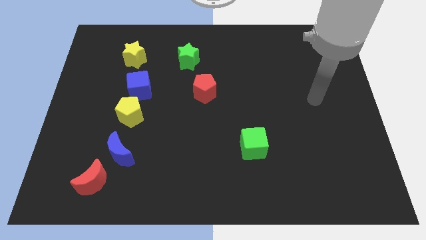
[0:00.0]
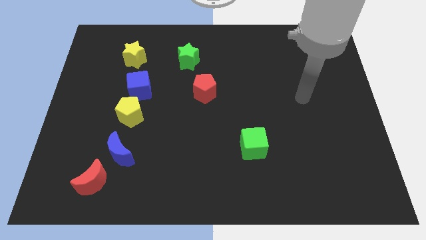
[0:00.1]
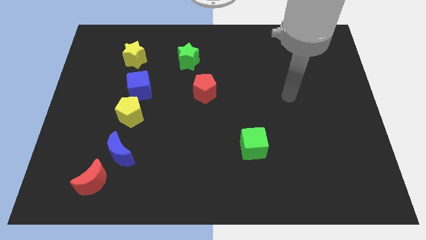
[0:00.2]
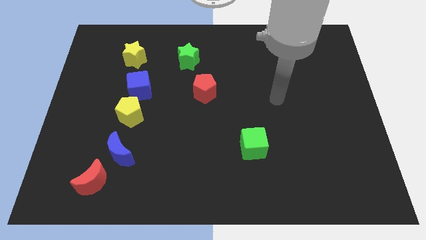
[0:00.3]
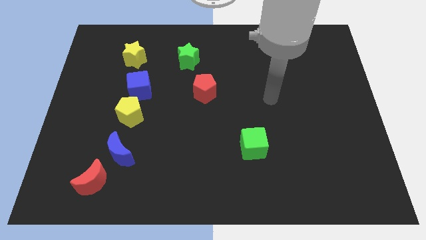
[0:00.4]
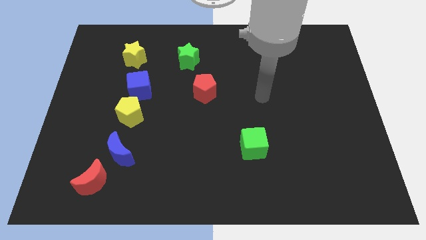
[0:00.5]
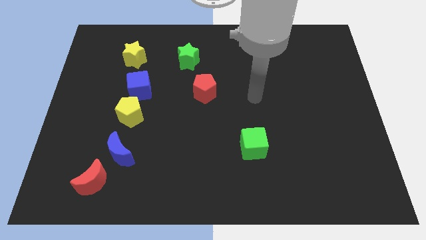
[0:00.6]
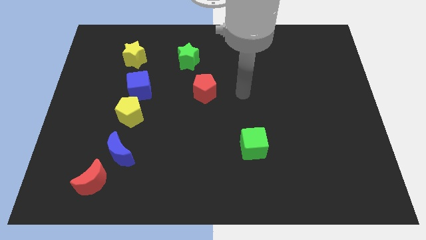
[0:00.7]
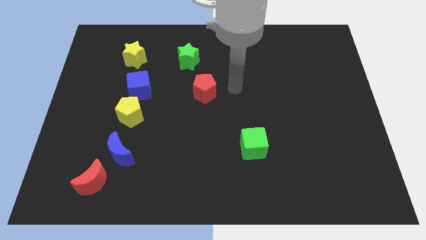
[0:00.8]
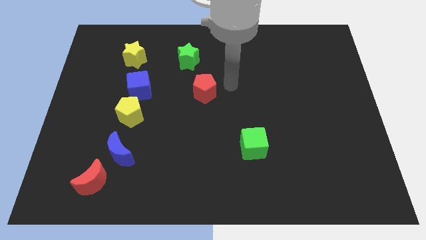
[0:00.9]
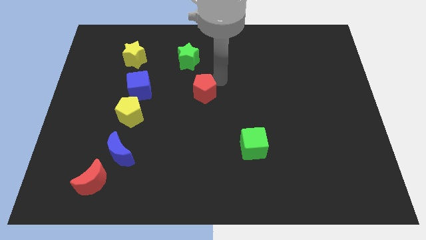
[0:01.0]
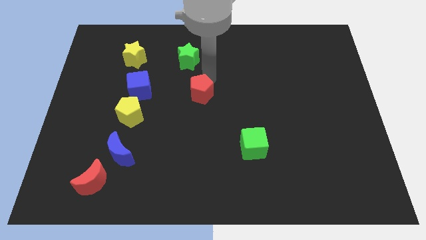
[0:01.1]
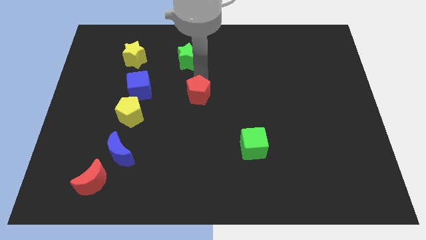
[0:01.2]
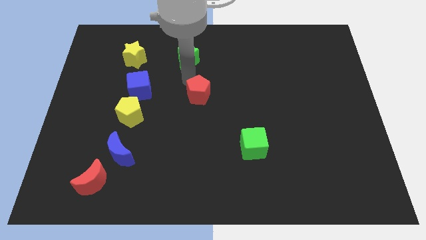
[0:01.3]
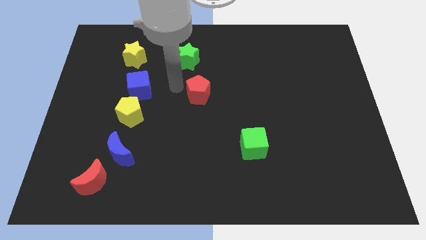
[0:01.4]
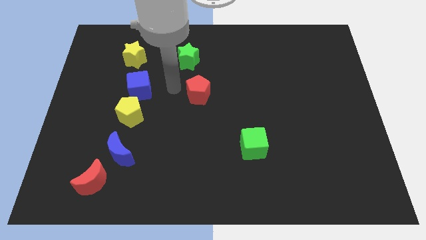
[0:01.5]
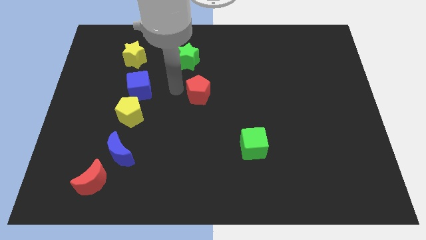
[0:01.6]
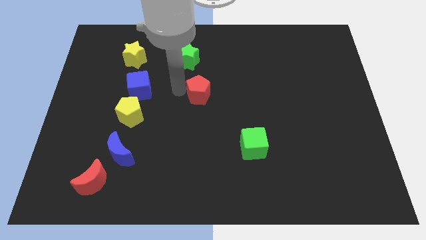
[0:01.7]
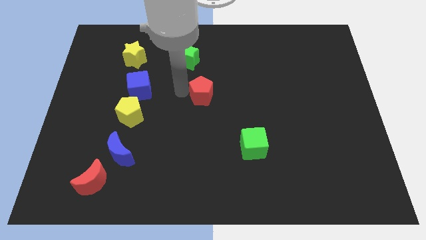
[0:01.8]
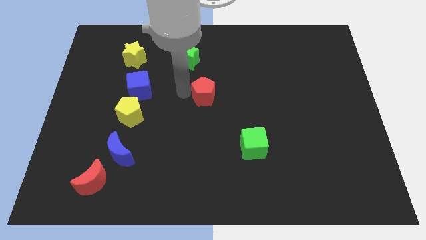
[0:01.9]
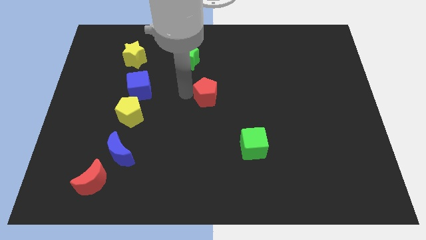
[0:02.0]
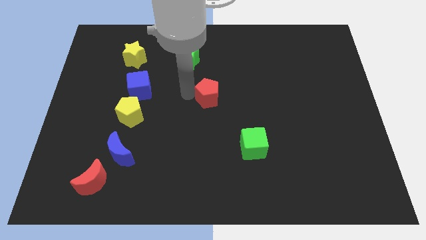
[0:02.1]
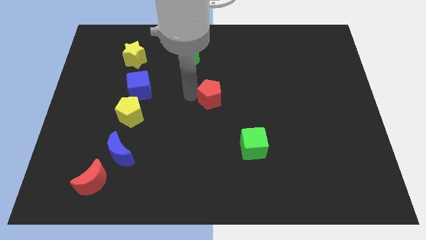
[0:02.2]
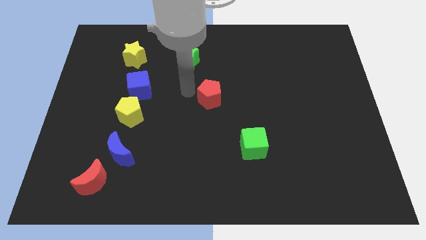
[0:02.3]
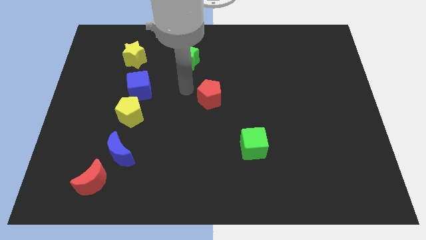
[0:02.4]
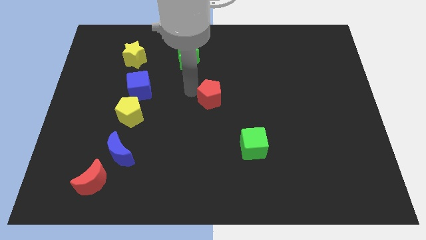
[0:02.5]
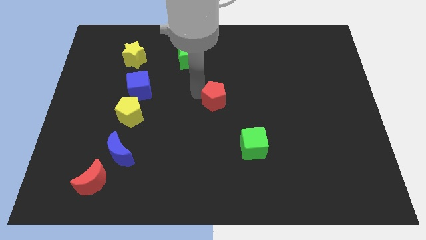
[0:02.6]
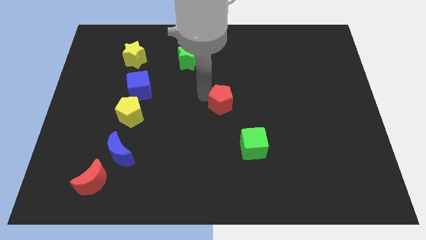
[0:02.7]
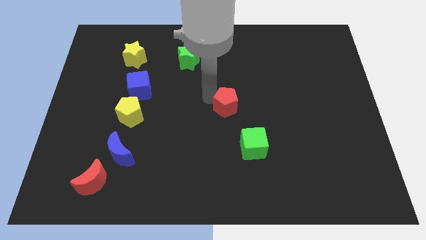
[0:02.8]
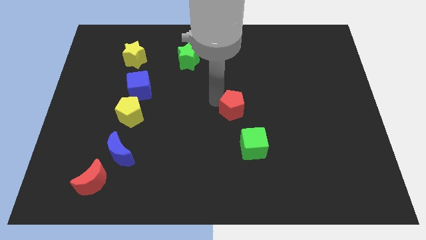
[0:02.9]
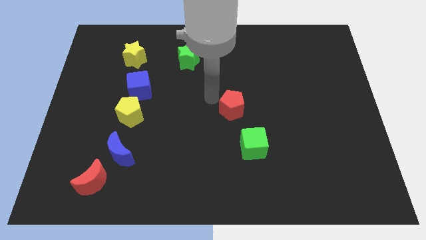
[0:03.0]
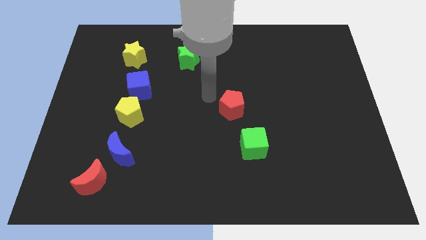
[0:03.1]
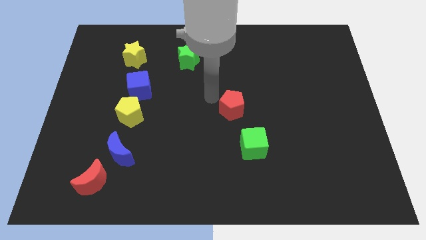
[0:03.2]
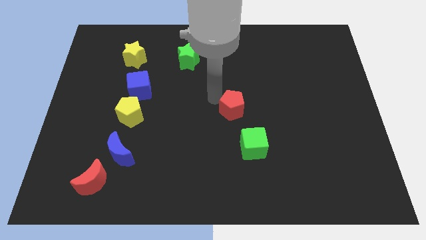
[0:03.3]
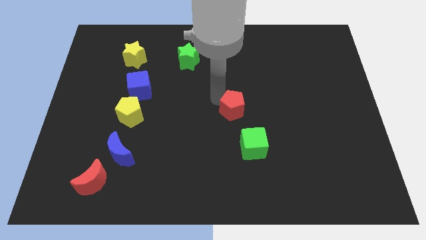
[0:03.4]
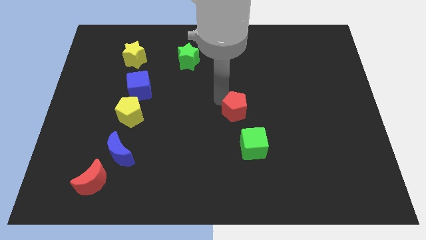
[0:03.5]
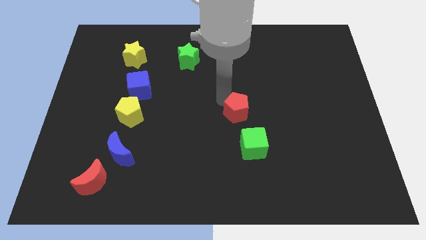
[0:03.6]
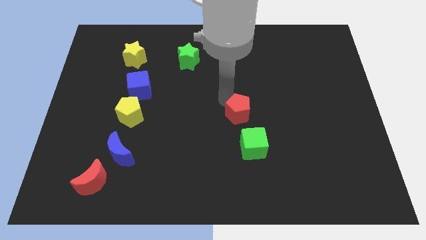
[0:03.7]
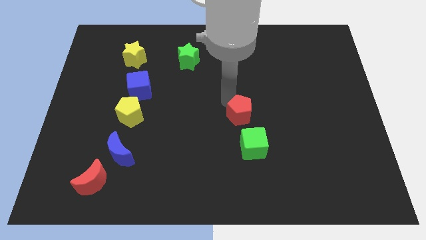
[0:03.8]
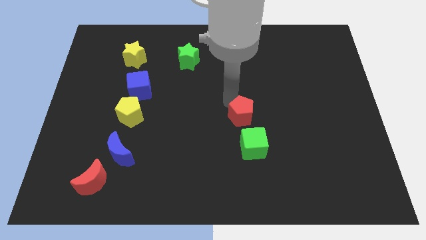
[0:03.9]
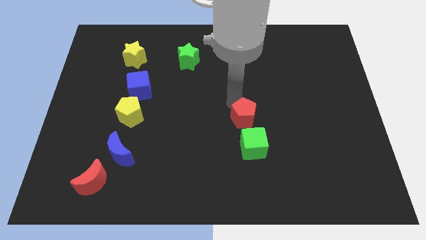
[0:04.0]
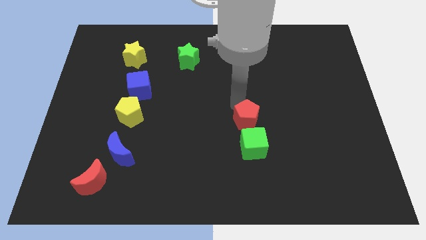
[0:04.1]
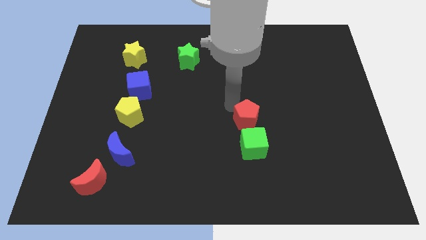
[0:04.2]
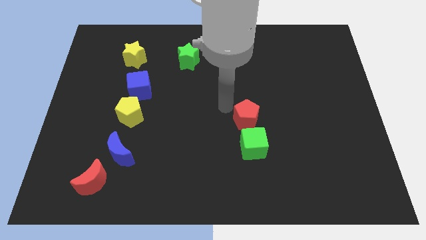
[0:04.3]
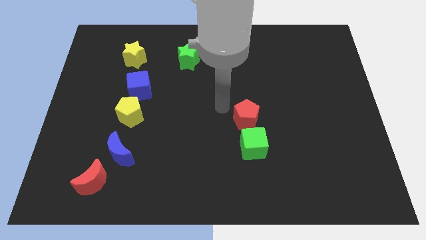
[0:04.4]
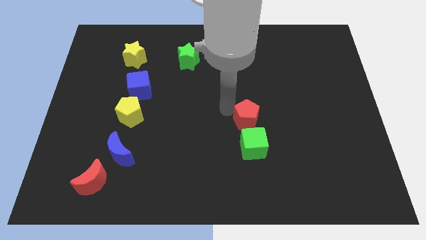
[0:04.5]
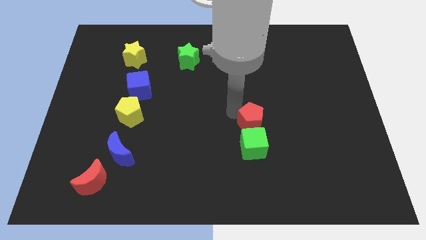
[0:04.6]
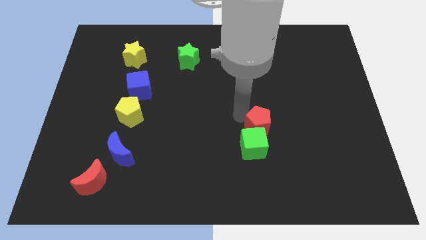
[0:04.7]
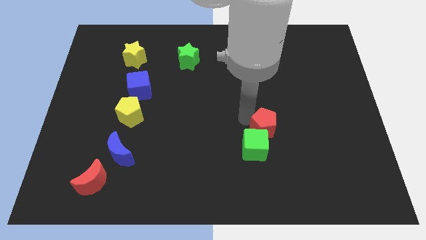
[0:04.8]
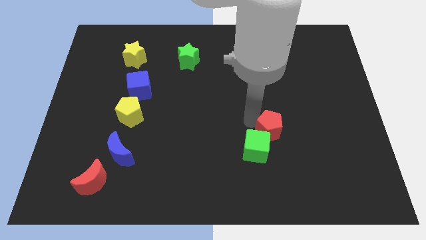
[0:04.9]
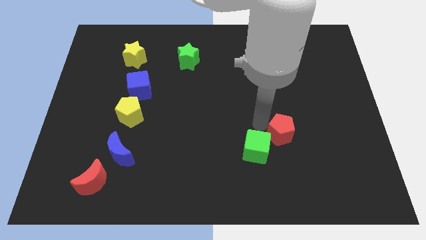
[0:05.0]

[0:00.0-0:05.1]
move the red pentagon right of the green cube

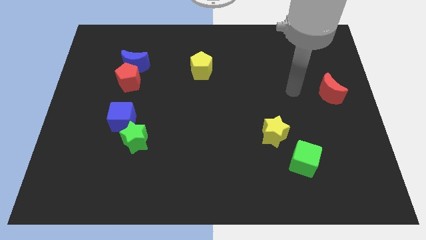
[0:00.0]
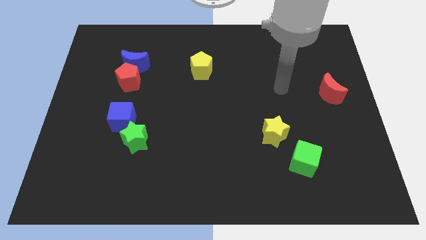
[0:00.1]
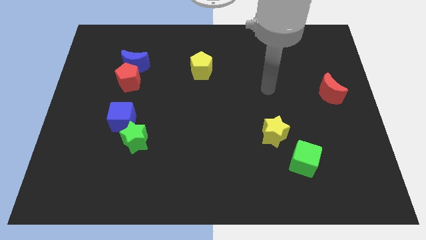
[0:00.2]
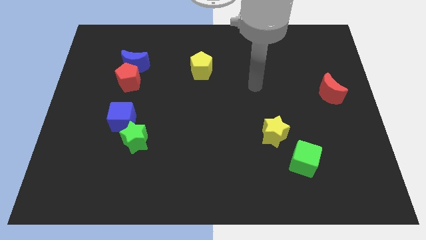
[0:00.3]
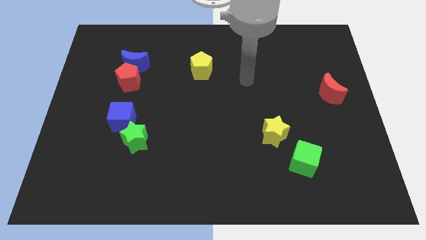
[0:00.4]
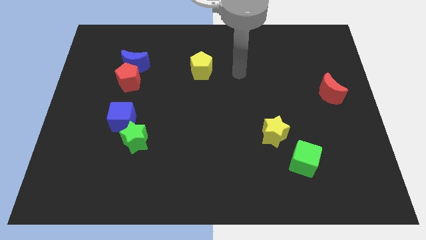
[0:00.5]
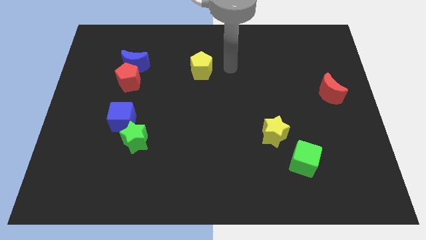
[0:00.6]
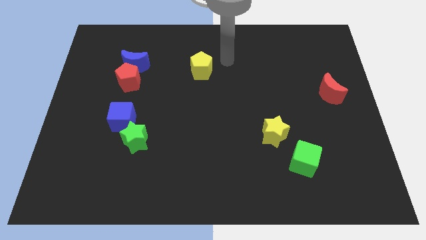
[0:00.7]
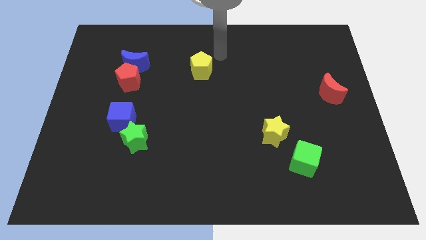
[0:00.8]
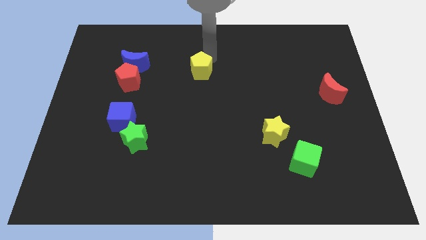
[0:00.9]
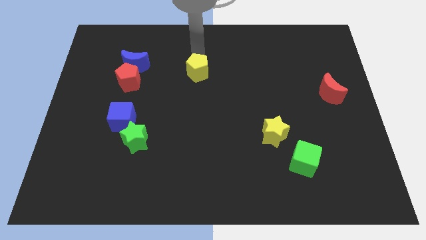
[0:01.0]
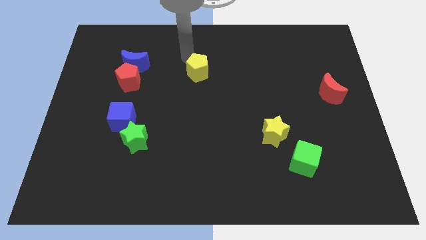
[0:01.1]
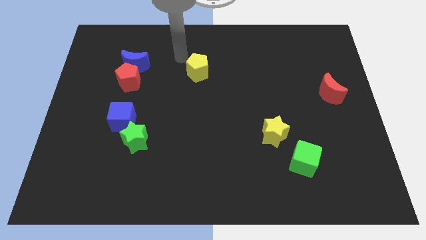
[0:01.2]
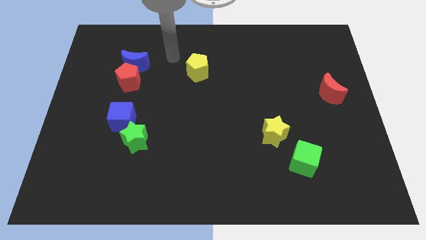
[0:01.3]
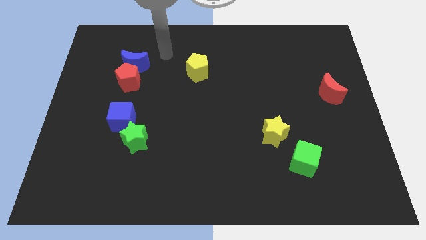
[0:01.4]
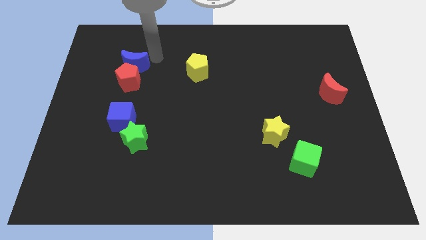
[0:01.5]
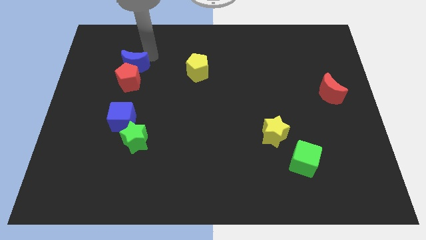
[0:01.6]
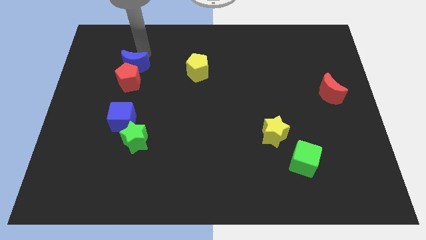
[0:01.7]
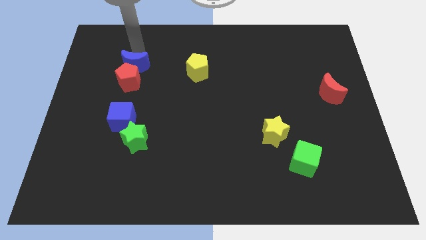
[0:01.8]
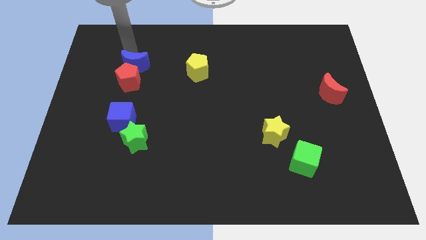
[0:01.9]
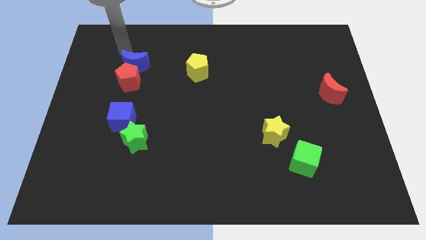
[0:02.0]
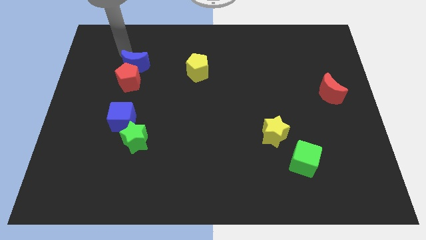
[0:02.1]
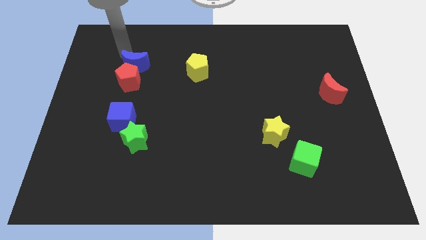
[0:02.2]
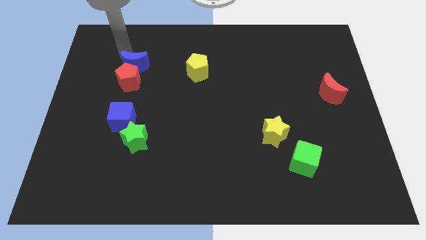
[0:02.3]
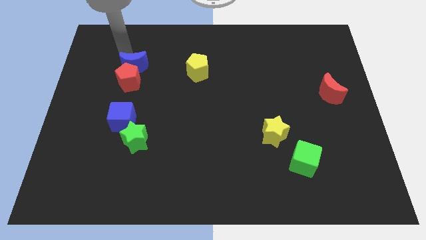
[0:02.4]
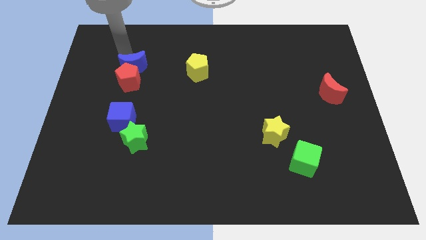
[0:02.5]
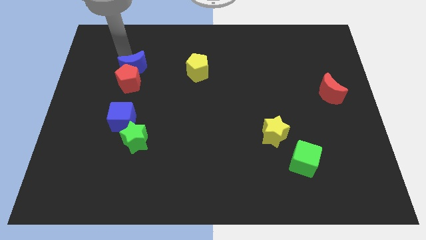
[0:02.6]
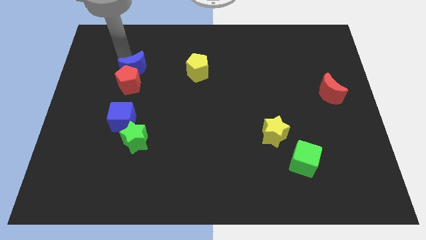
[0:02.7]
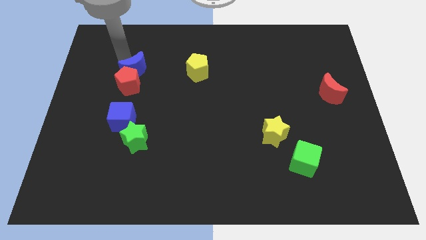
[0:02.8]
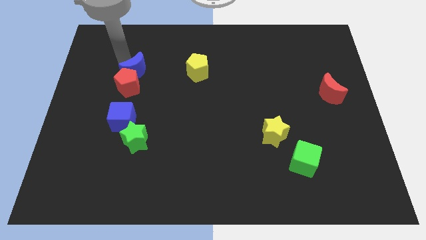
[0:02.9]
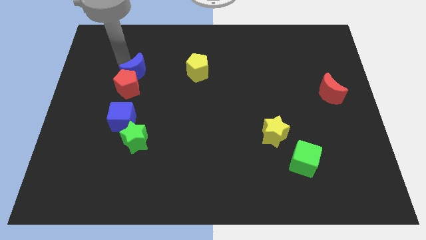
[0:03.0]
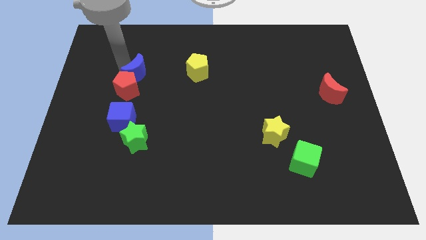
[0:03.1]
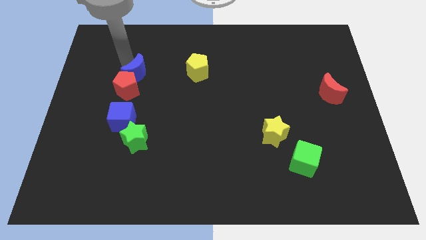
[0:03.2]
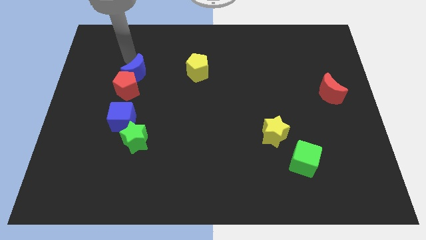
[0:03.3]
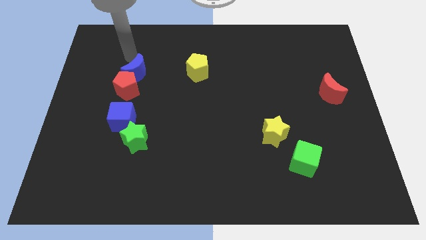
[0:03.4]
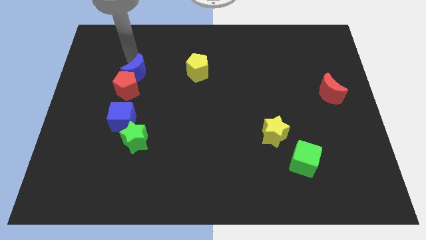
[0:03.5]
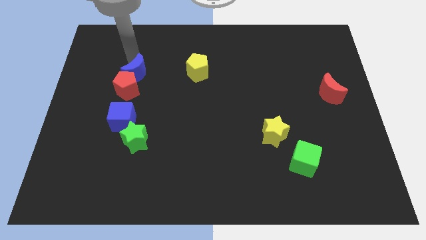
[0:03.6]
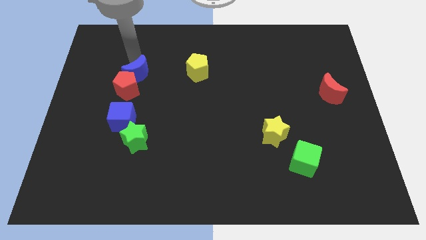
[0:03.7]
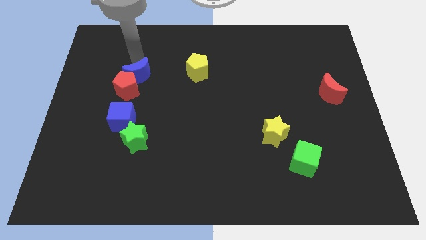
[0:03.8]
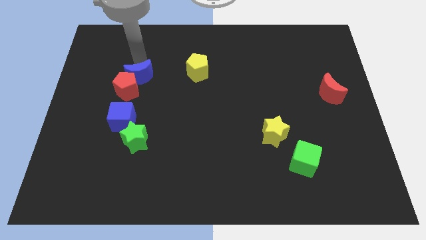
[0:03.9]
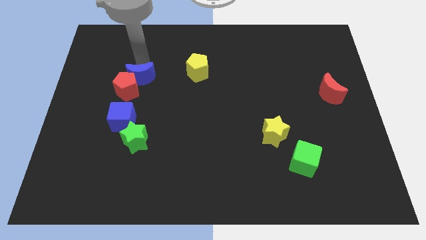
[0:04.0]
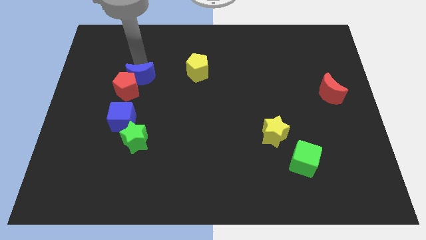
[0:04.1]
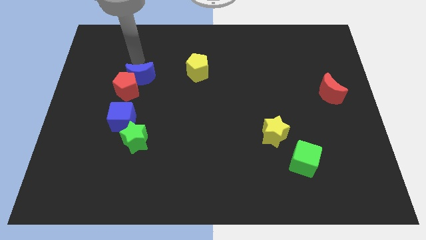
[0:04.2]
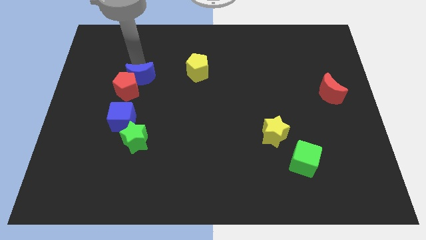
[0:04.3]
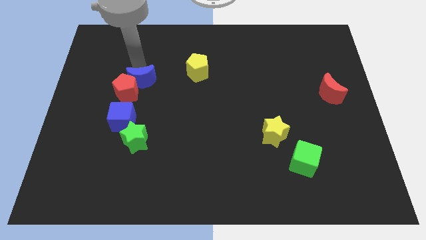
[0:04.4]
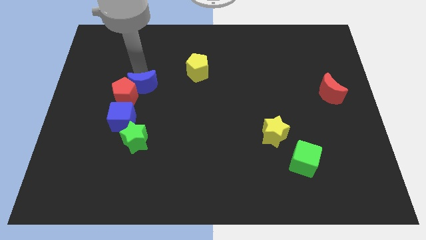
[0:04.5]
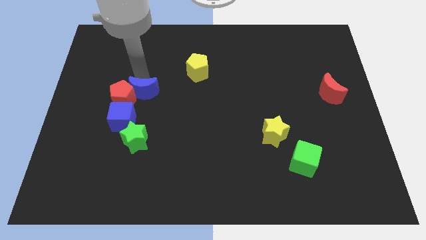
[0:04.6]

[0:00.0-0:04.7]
put the blue moon diagonally up and to the right of the blue cube
